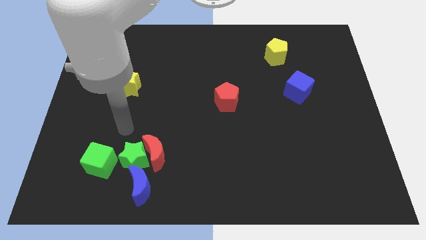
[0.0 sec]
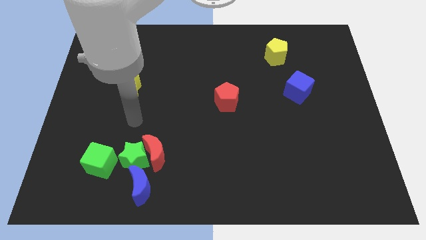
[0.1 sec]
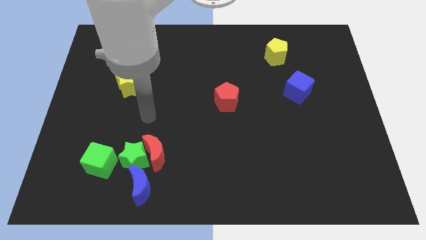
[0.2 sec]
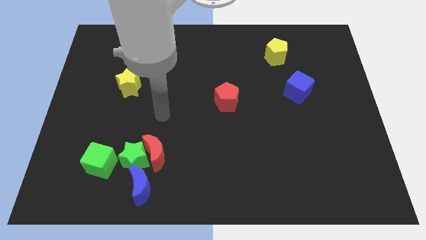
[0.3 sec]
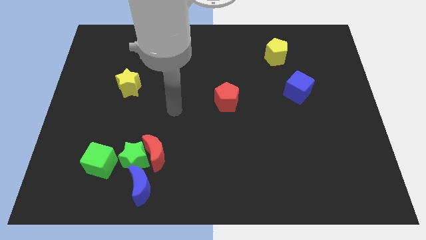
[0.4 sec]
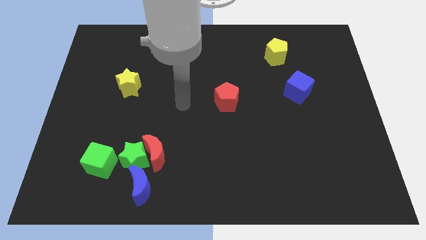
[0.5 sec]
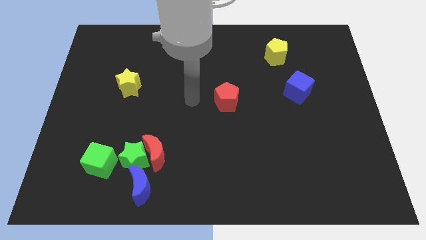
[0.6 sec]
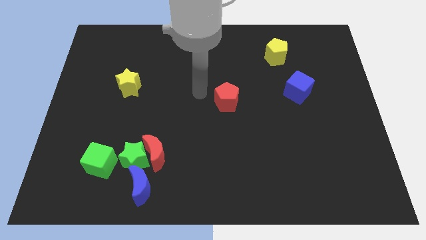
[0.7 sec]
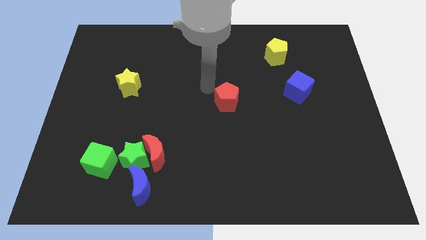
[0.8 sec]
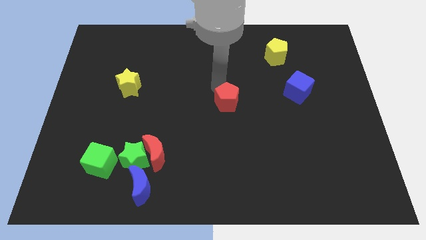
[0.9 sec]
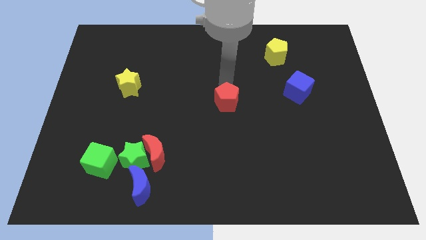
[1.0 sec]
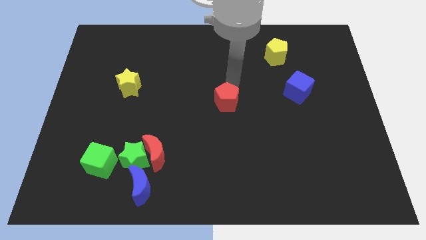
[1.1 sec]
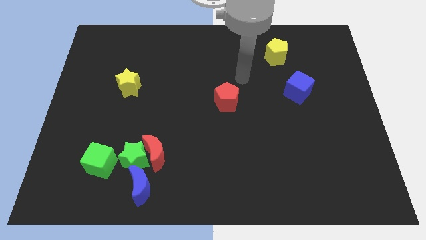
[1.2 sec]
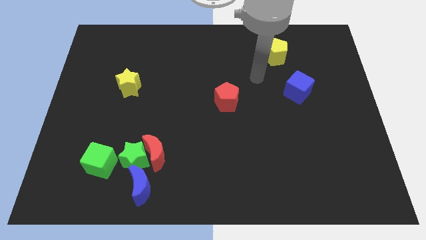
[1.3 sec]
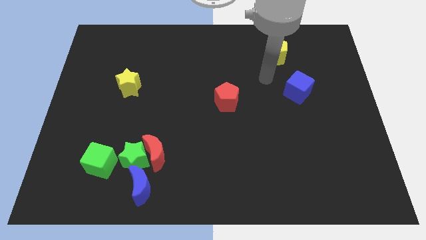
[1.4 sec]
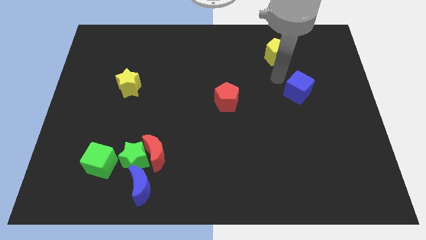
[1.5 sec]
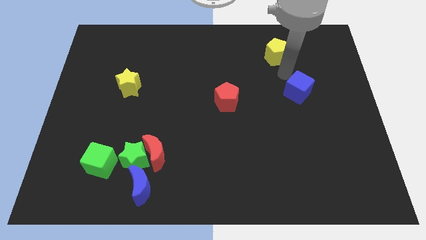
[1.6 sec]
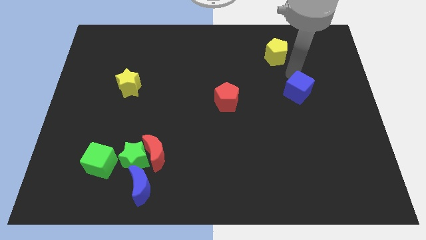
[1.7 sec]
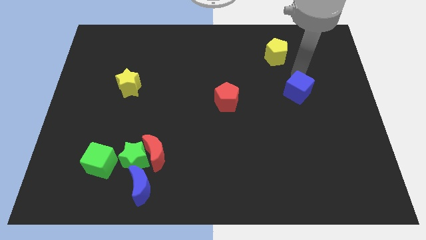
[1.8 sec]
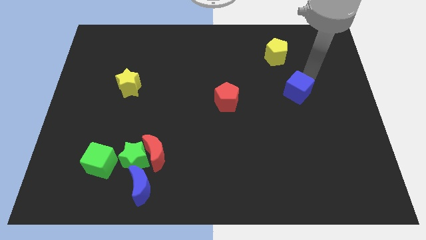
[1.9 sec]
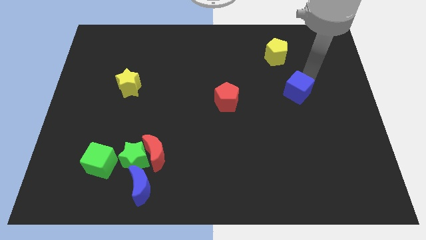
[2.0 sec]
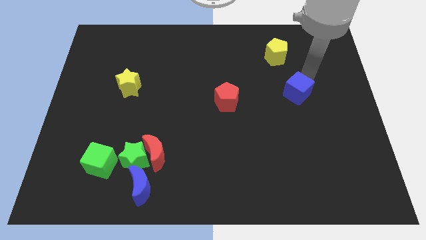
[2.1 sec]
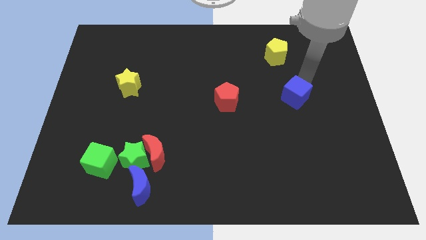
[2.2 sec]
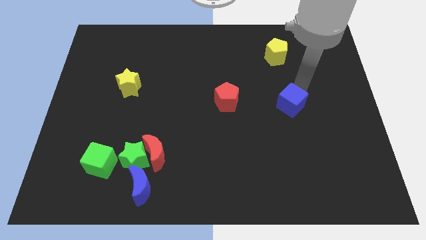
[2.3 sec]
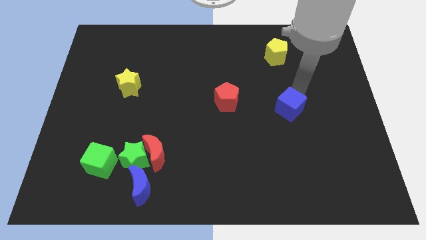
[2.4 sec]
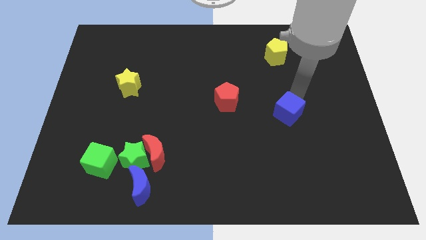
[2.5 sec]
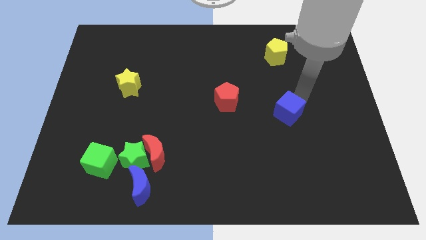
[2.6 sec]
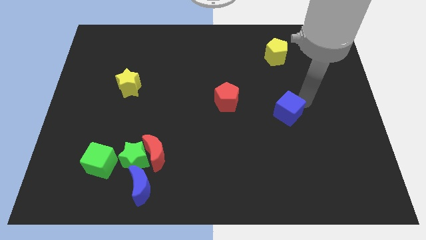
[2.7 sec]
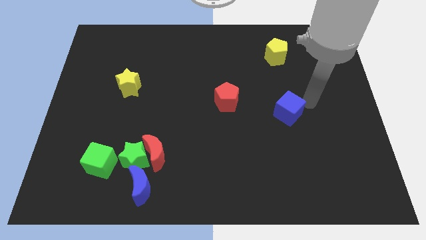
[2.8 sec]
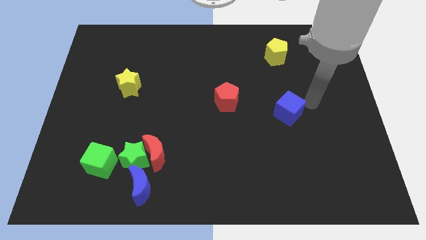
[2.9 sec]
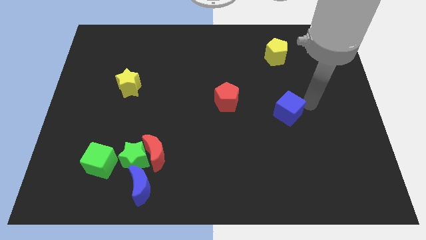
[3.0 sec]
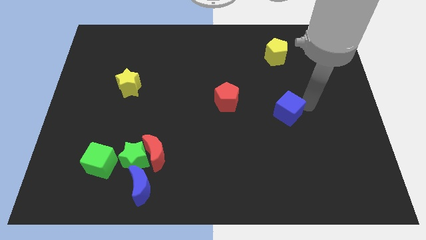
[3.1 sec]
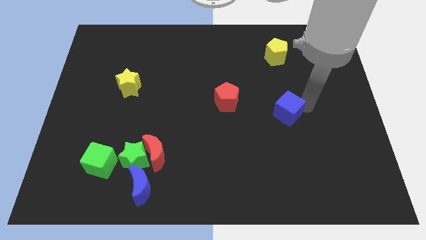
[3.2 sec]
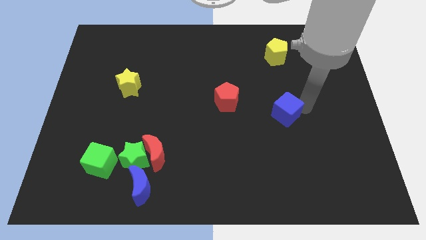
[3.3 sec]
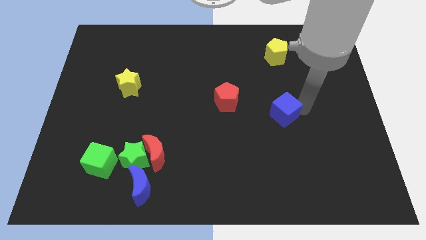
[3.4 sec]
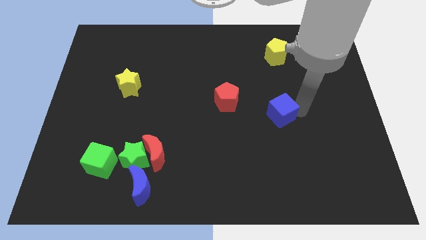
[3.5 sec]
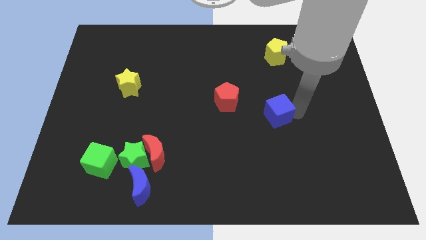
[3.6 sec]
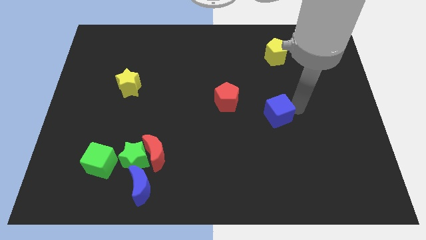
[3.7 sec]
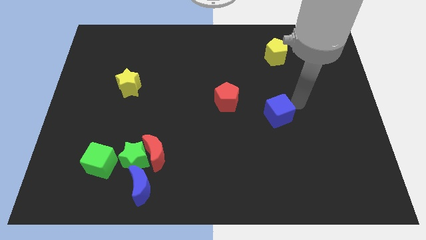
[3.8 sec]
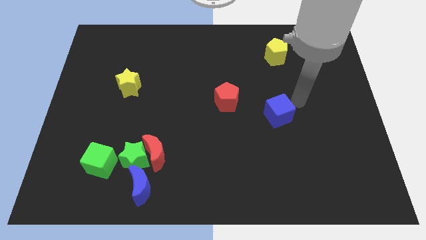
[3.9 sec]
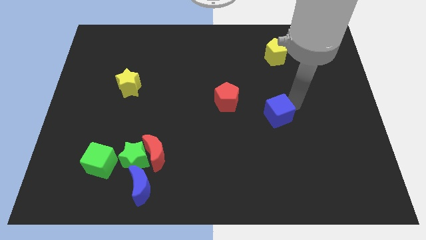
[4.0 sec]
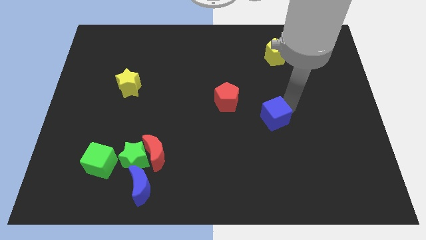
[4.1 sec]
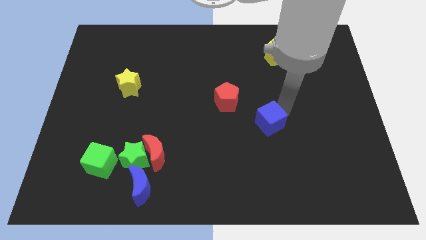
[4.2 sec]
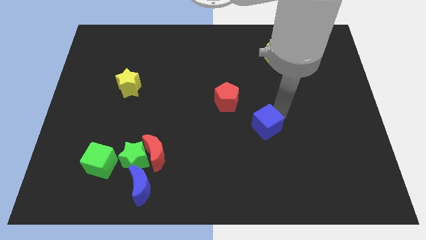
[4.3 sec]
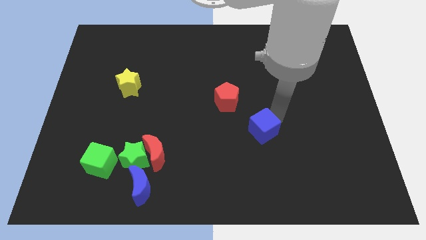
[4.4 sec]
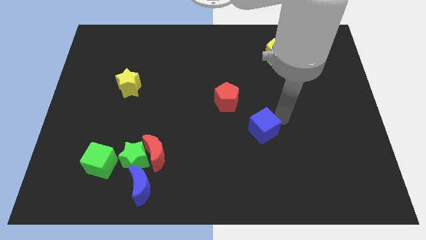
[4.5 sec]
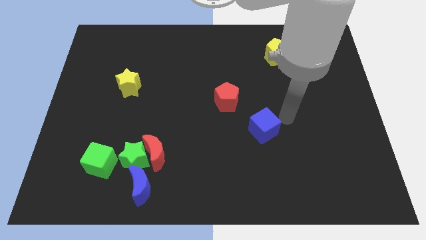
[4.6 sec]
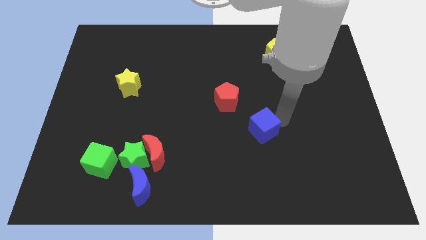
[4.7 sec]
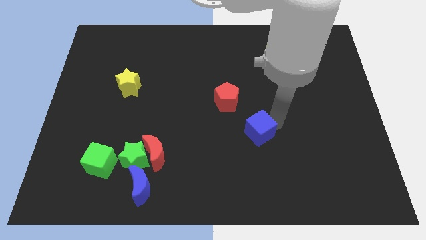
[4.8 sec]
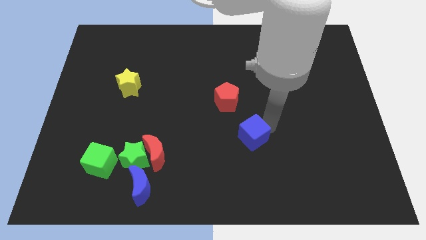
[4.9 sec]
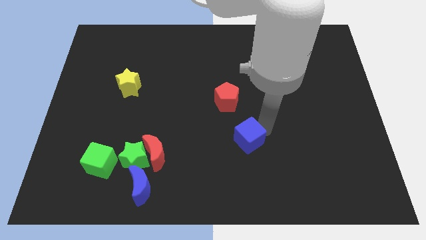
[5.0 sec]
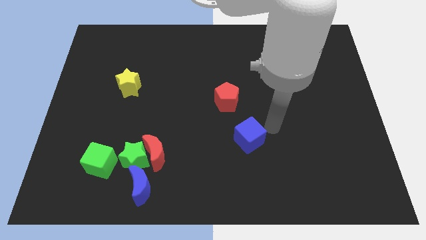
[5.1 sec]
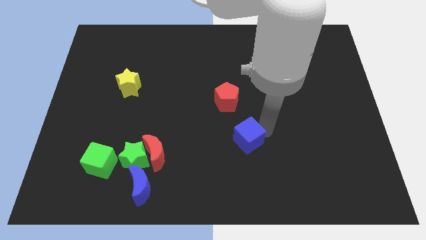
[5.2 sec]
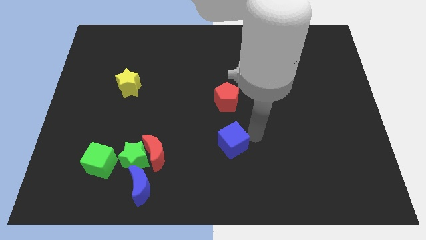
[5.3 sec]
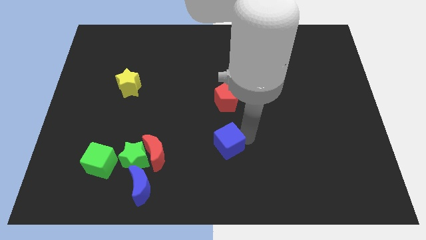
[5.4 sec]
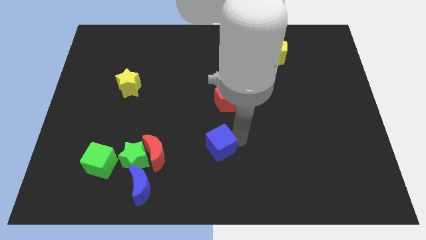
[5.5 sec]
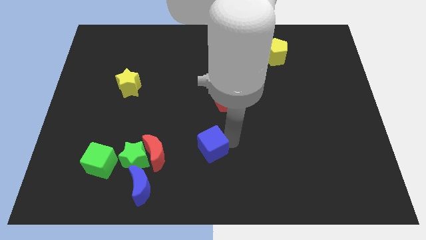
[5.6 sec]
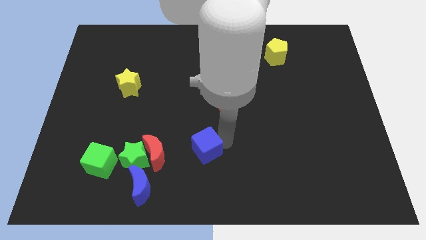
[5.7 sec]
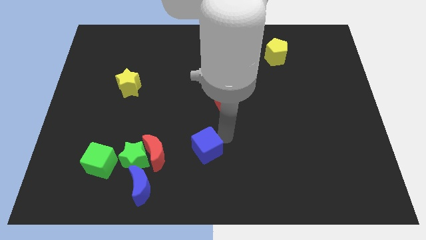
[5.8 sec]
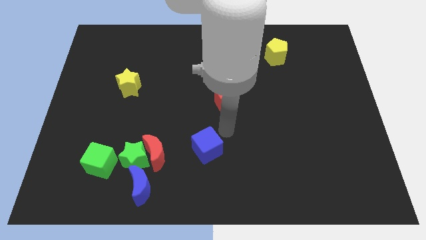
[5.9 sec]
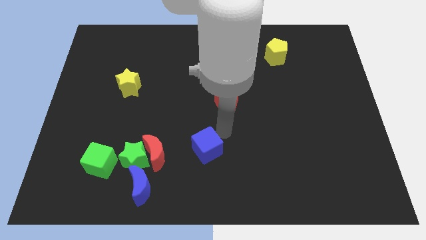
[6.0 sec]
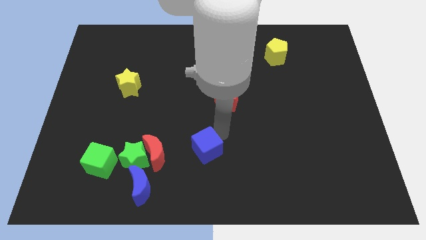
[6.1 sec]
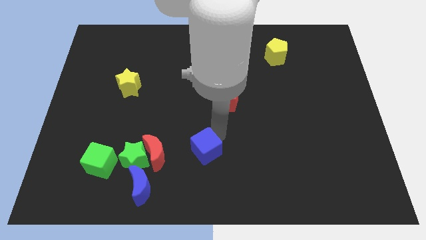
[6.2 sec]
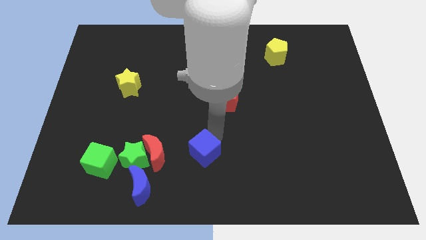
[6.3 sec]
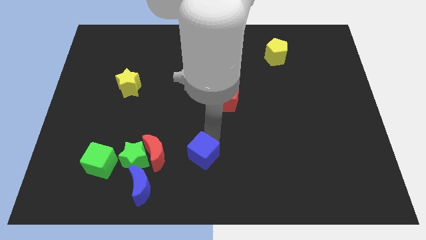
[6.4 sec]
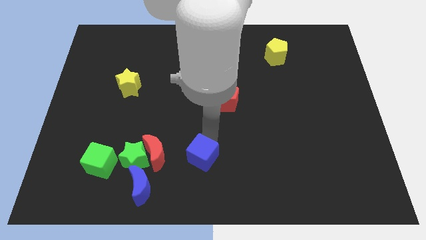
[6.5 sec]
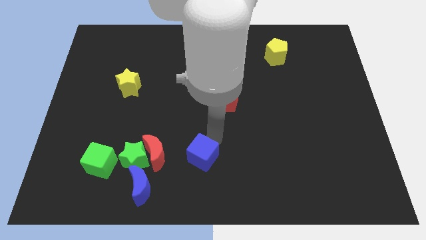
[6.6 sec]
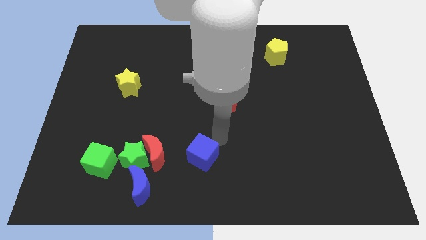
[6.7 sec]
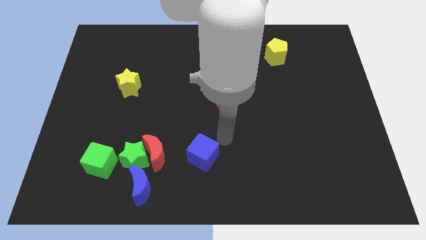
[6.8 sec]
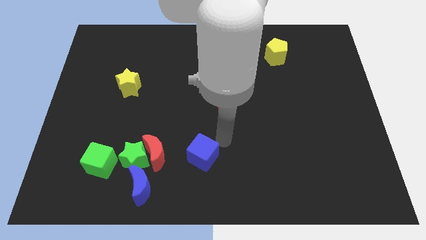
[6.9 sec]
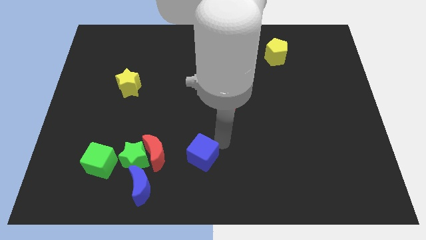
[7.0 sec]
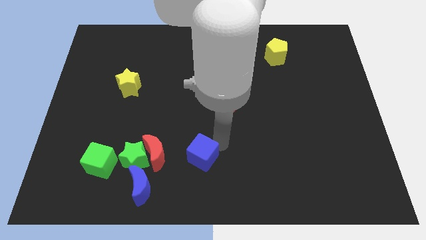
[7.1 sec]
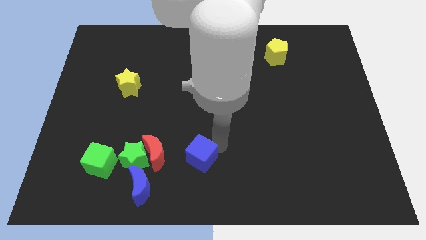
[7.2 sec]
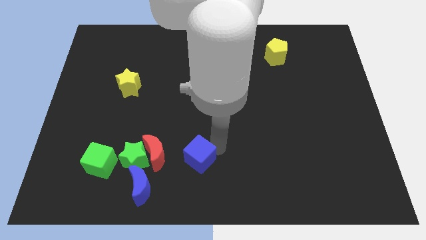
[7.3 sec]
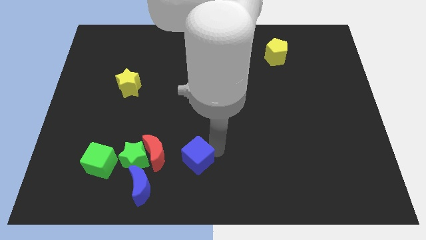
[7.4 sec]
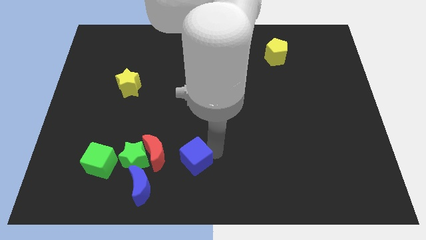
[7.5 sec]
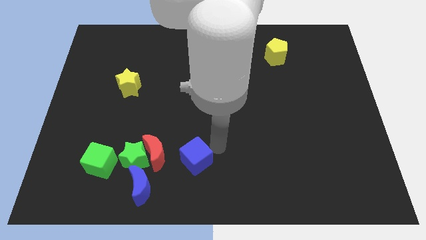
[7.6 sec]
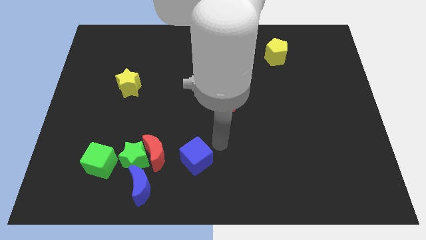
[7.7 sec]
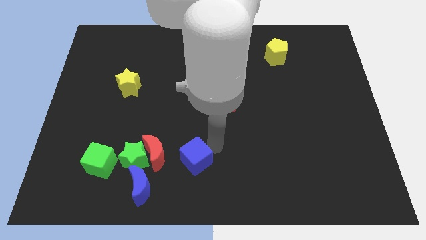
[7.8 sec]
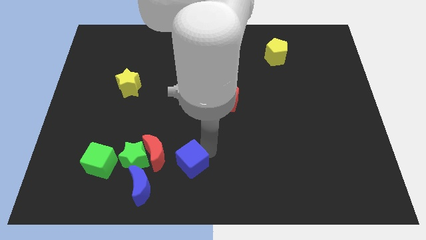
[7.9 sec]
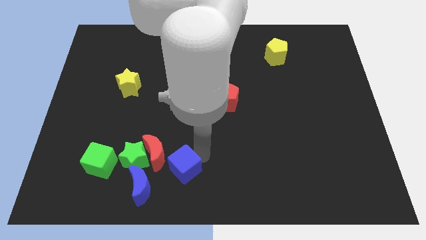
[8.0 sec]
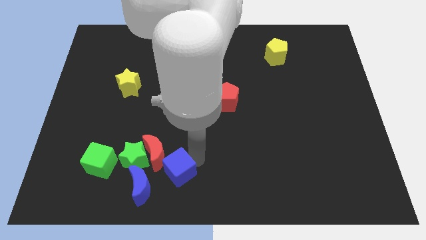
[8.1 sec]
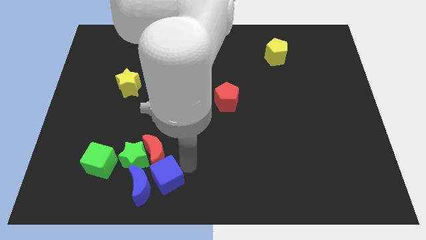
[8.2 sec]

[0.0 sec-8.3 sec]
move the blue cube next to the blue moon
